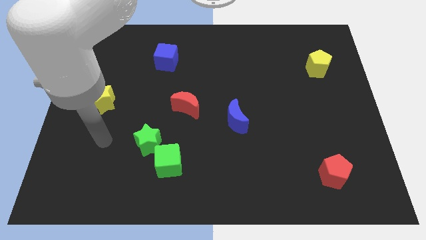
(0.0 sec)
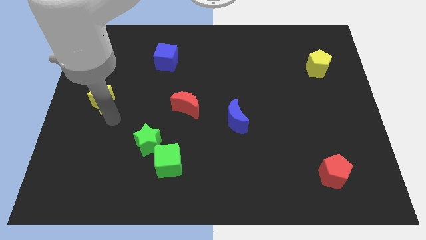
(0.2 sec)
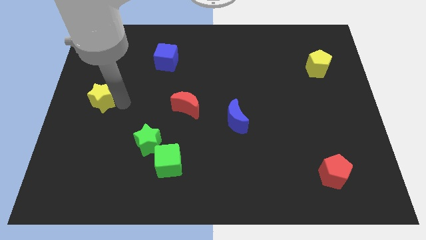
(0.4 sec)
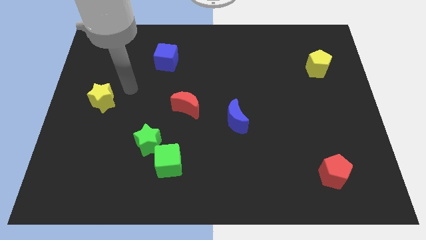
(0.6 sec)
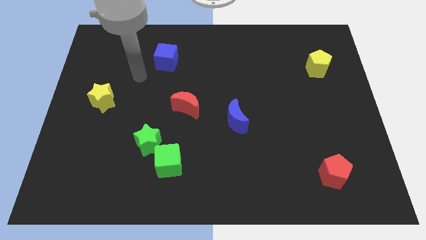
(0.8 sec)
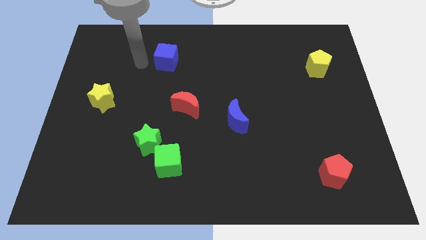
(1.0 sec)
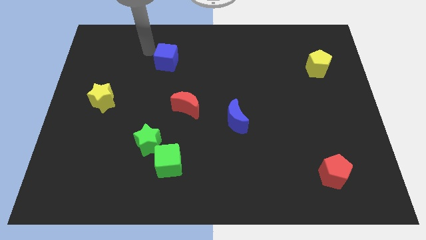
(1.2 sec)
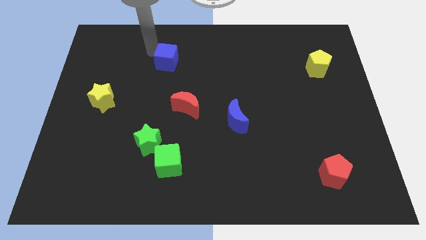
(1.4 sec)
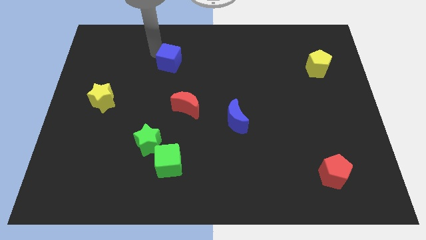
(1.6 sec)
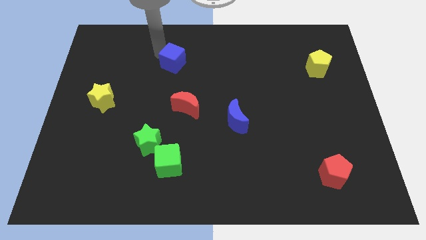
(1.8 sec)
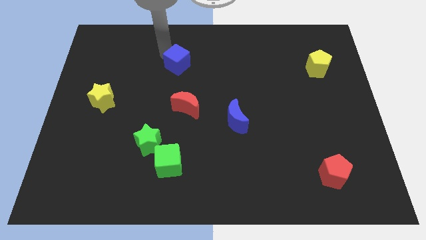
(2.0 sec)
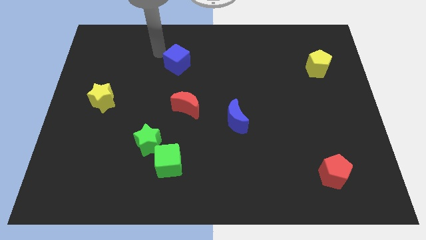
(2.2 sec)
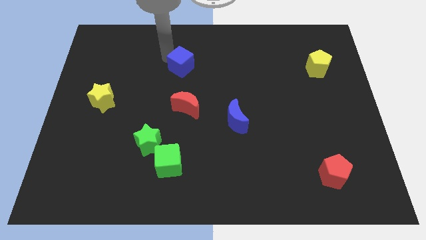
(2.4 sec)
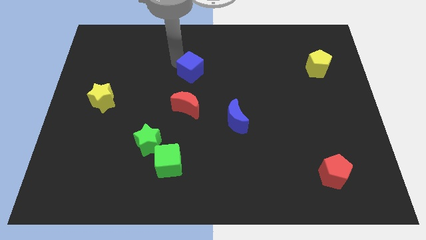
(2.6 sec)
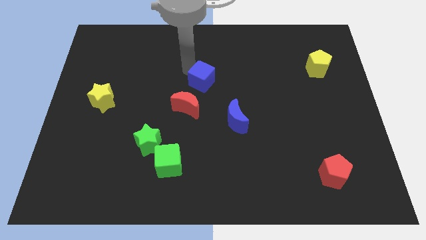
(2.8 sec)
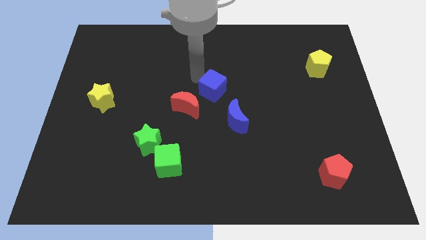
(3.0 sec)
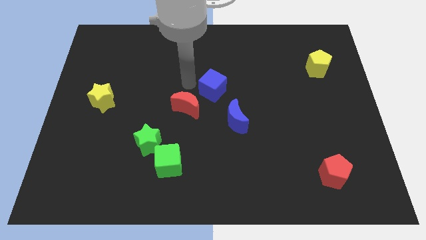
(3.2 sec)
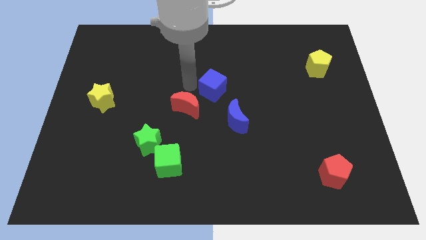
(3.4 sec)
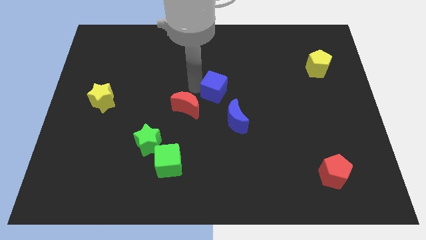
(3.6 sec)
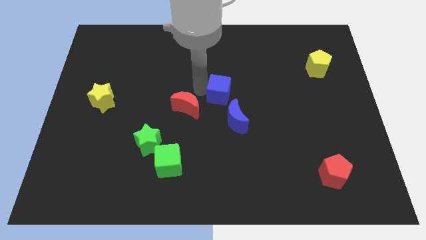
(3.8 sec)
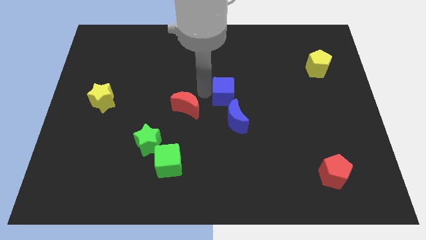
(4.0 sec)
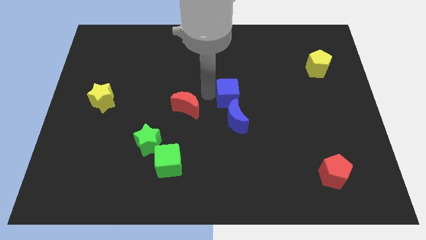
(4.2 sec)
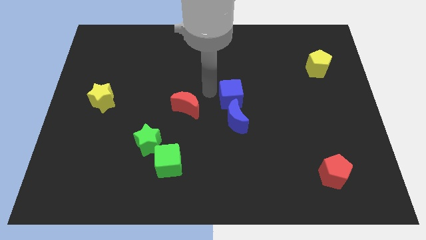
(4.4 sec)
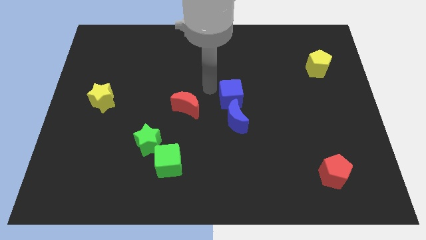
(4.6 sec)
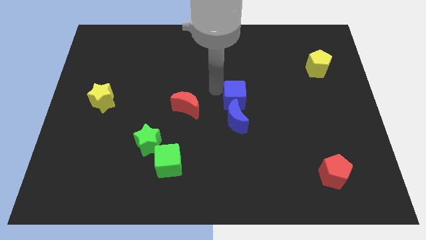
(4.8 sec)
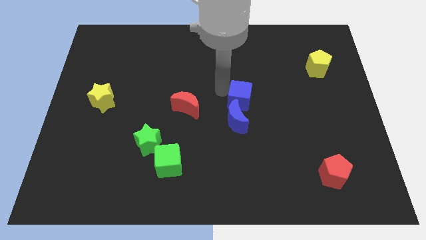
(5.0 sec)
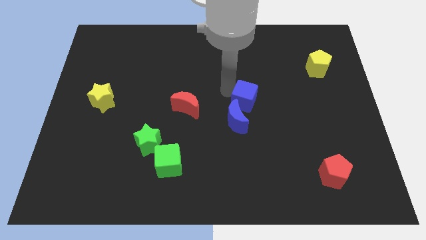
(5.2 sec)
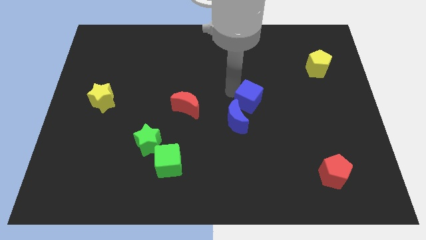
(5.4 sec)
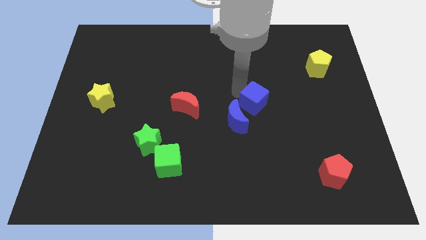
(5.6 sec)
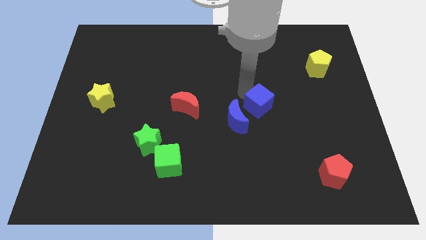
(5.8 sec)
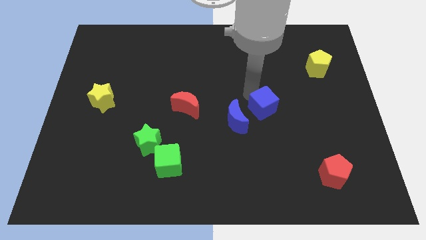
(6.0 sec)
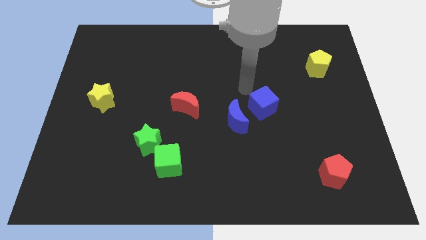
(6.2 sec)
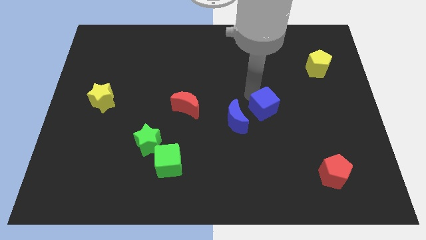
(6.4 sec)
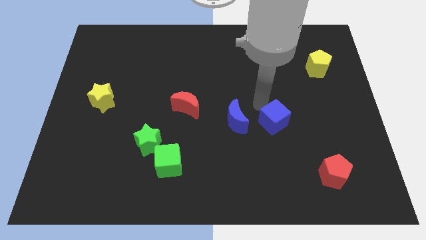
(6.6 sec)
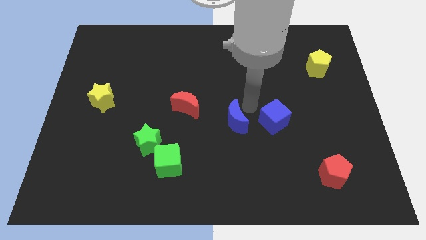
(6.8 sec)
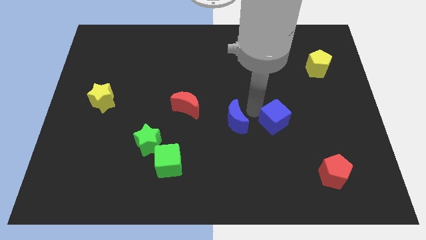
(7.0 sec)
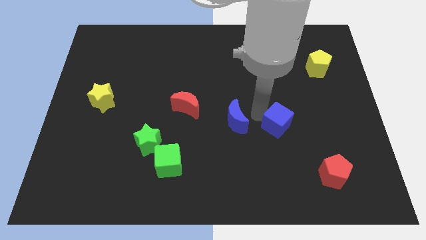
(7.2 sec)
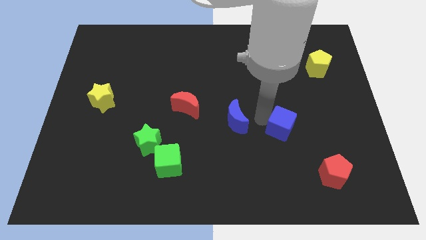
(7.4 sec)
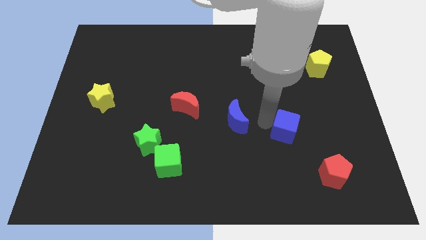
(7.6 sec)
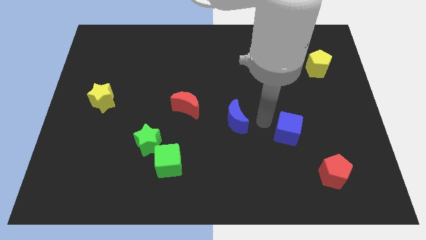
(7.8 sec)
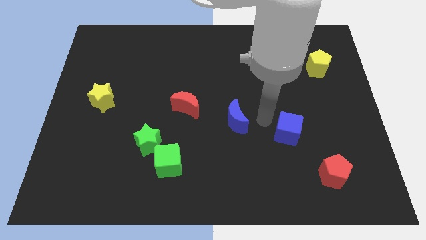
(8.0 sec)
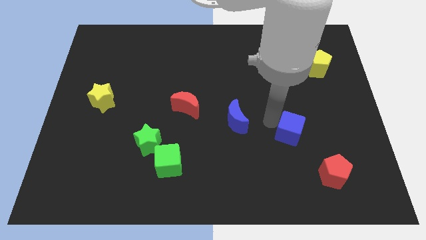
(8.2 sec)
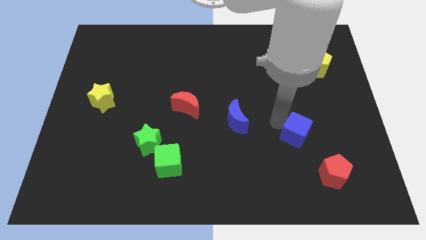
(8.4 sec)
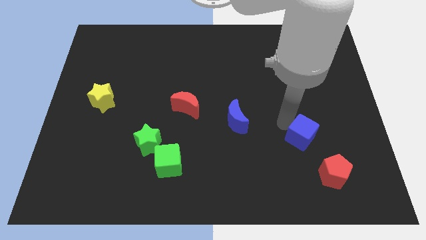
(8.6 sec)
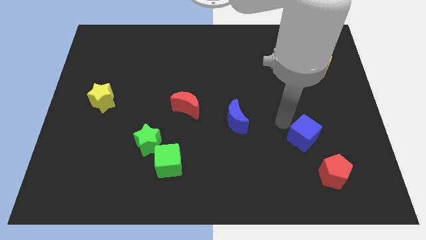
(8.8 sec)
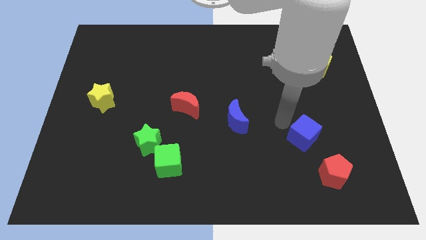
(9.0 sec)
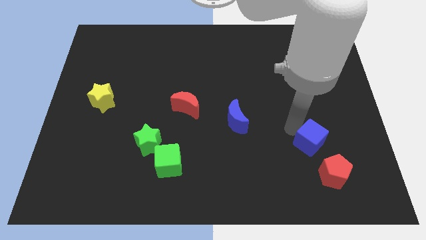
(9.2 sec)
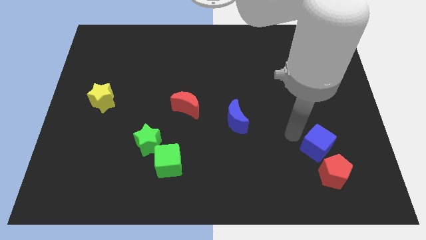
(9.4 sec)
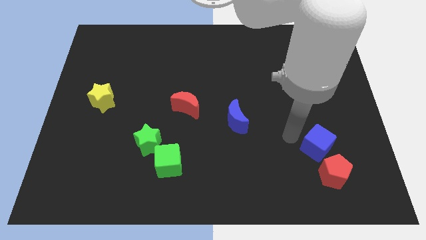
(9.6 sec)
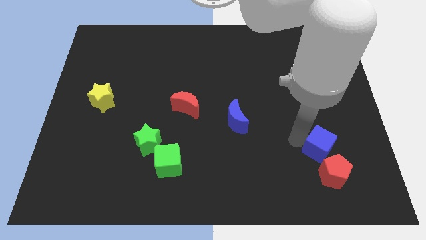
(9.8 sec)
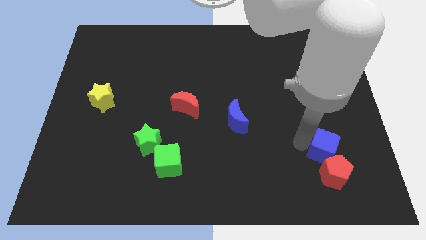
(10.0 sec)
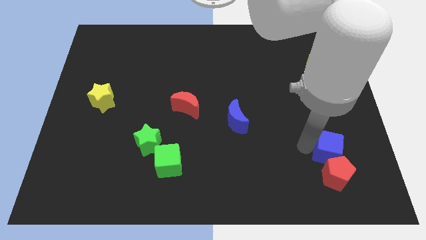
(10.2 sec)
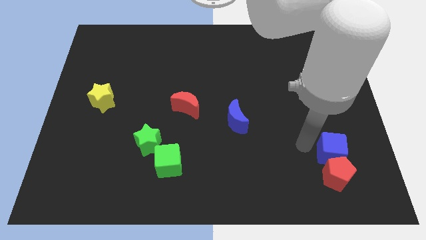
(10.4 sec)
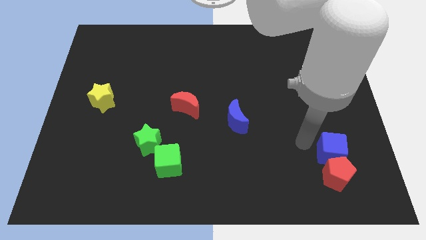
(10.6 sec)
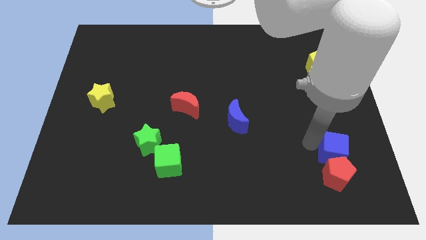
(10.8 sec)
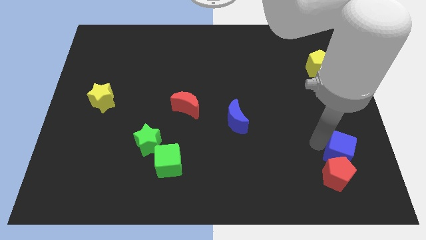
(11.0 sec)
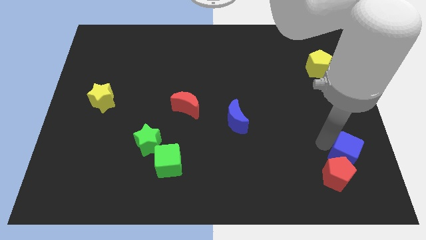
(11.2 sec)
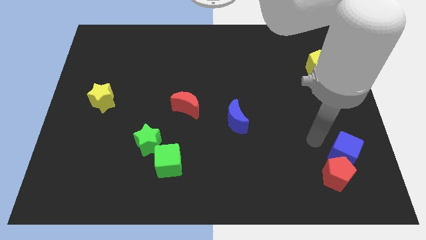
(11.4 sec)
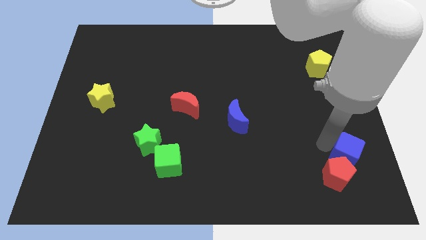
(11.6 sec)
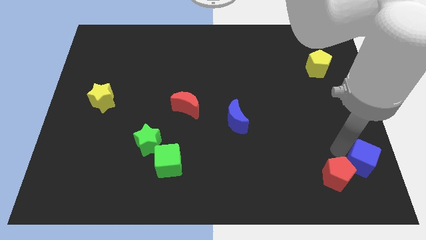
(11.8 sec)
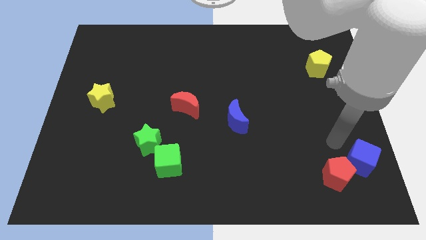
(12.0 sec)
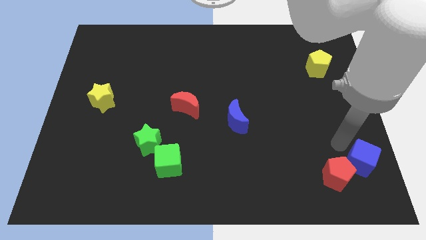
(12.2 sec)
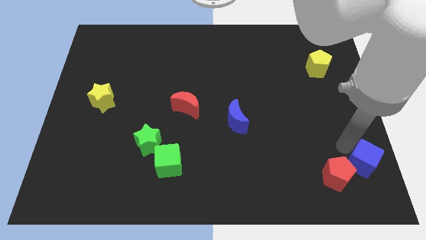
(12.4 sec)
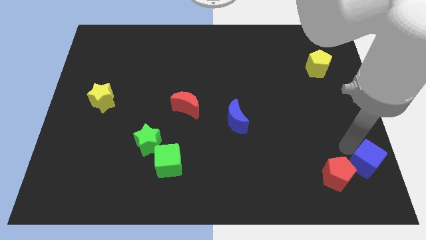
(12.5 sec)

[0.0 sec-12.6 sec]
slide the blue cube to the bottom right corner
